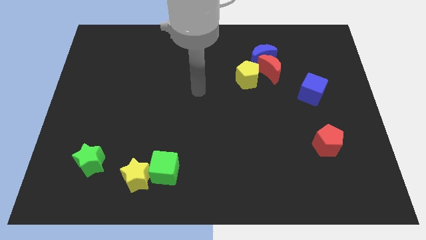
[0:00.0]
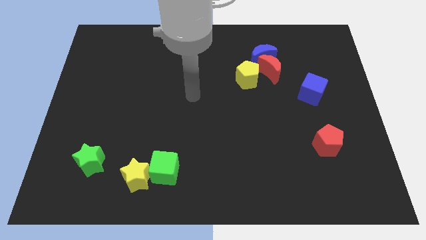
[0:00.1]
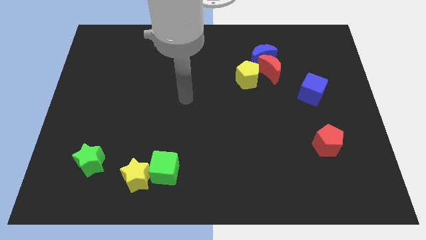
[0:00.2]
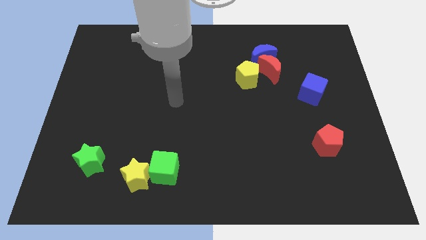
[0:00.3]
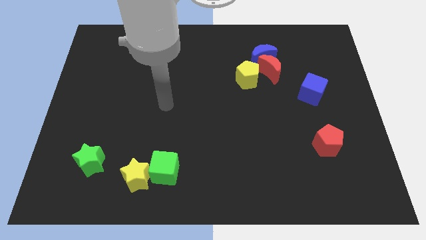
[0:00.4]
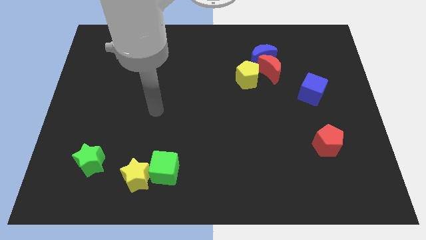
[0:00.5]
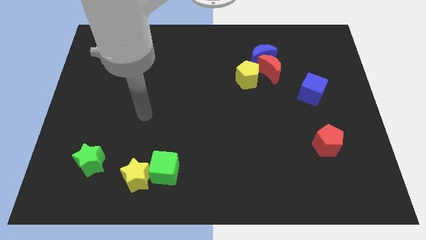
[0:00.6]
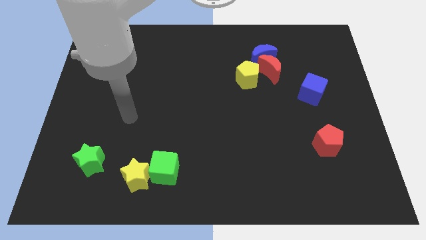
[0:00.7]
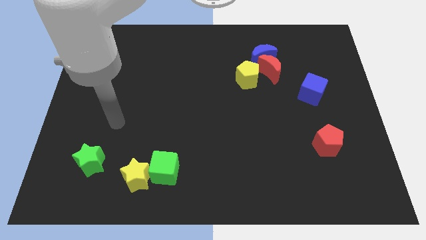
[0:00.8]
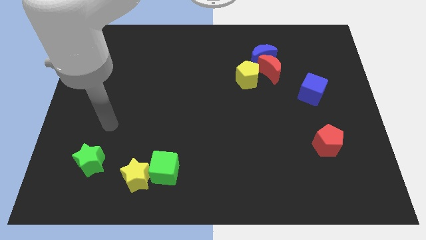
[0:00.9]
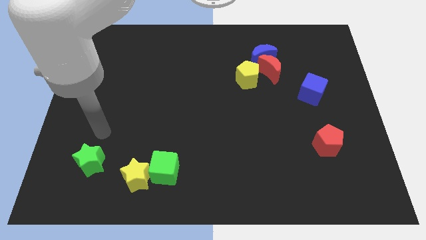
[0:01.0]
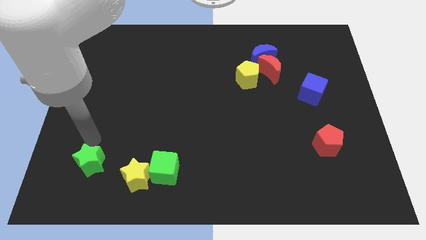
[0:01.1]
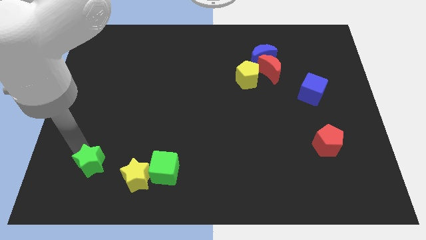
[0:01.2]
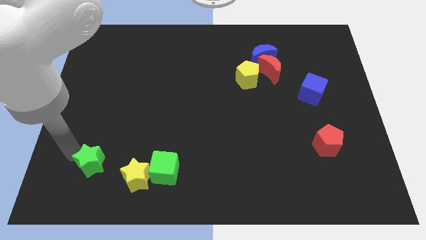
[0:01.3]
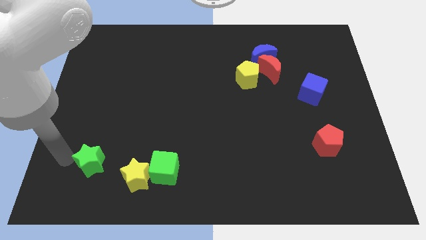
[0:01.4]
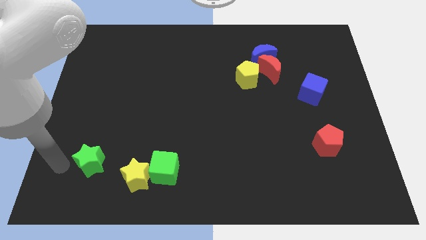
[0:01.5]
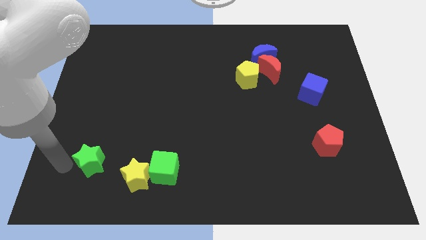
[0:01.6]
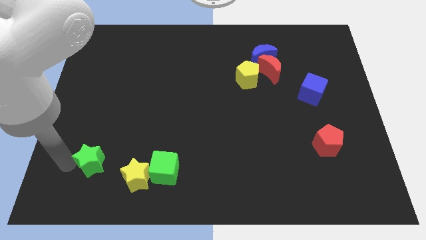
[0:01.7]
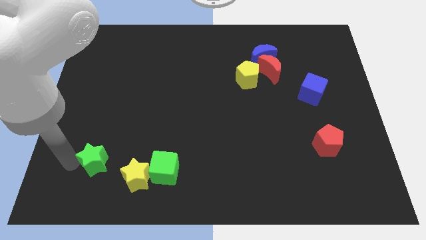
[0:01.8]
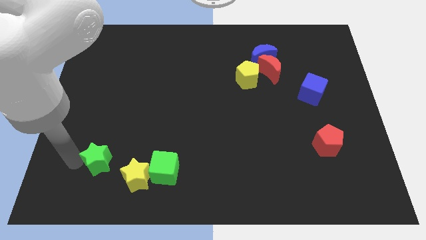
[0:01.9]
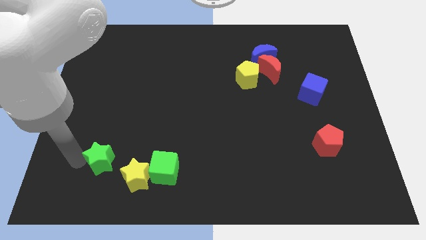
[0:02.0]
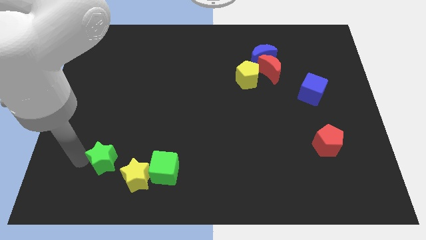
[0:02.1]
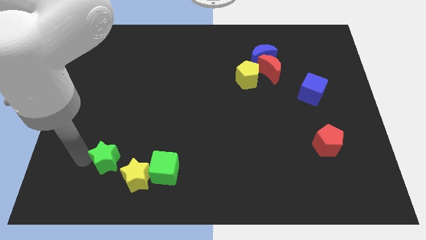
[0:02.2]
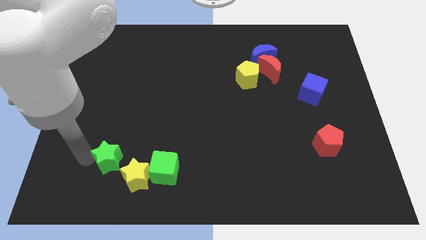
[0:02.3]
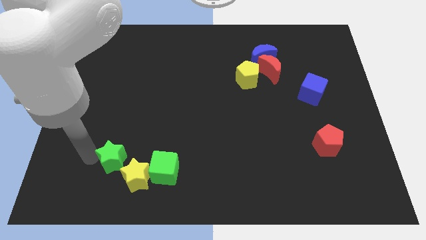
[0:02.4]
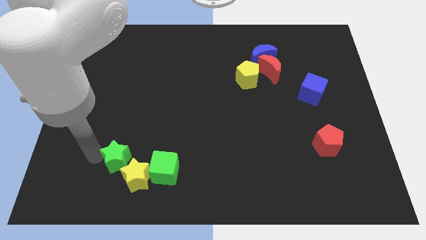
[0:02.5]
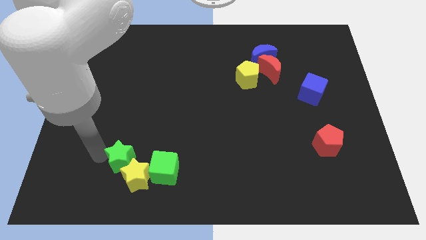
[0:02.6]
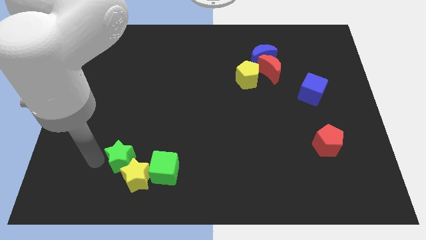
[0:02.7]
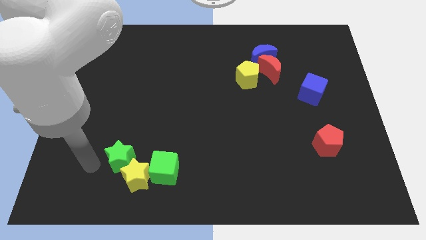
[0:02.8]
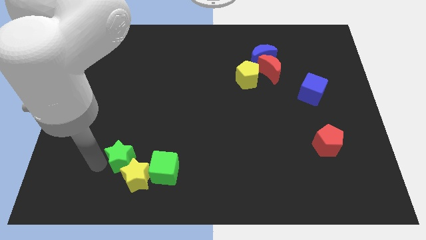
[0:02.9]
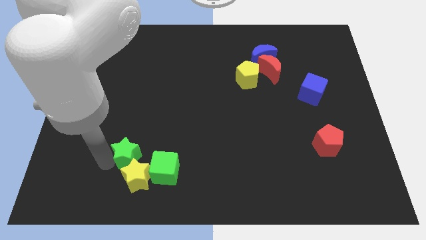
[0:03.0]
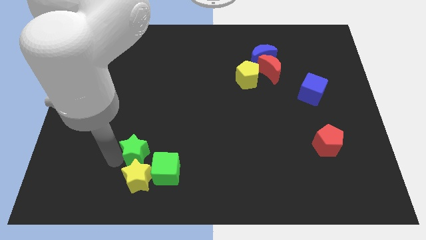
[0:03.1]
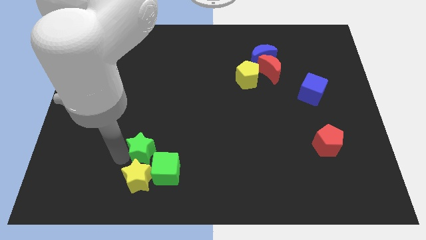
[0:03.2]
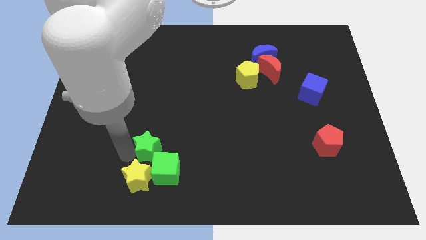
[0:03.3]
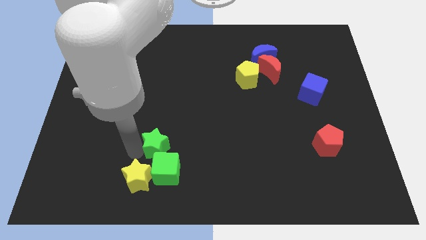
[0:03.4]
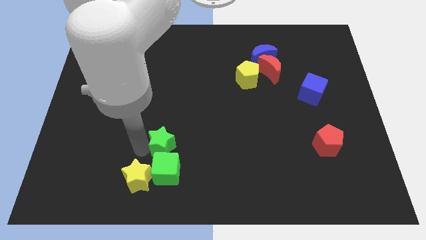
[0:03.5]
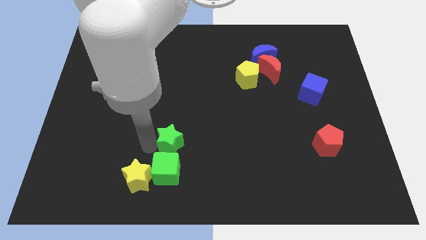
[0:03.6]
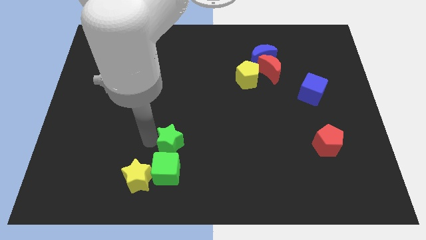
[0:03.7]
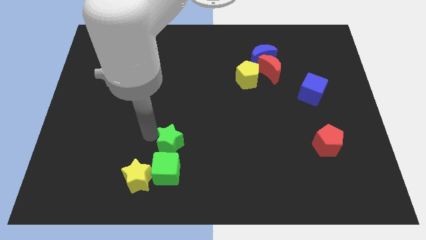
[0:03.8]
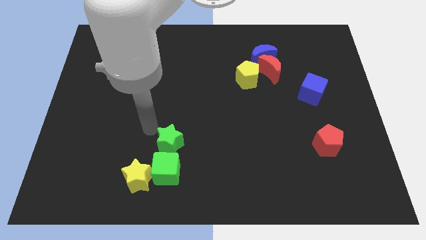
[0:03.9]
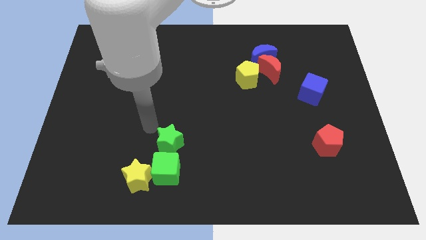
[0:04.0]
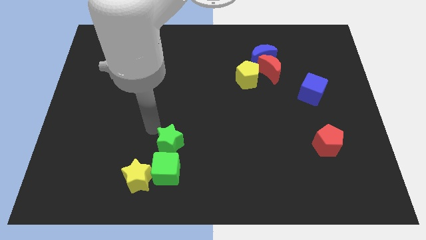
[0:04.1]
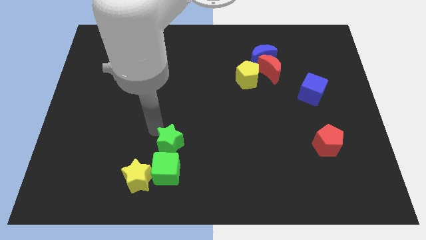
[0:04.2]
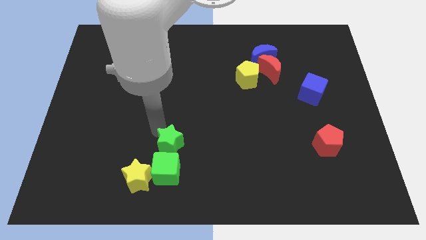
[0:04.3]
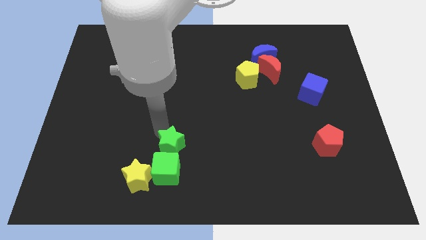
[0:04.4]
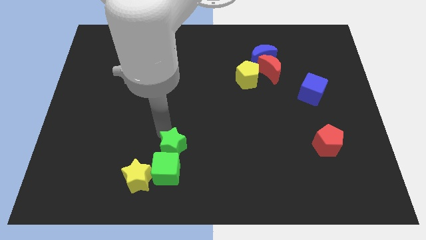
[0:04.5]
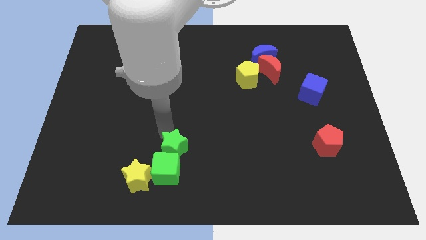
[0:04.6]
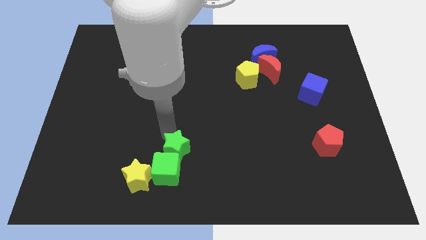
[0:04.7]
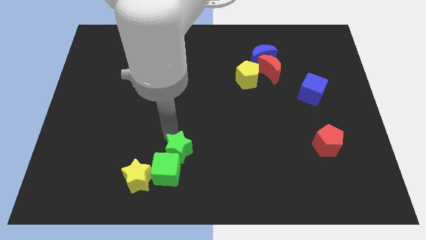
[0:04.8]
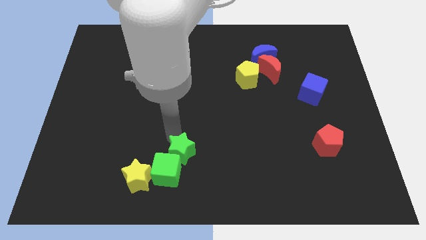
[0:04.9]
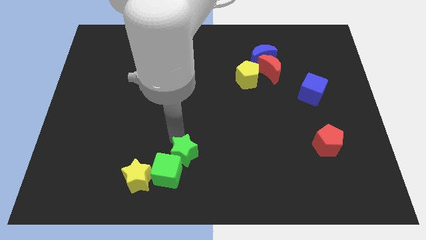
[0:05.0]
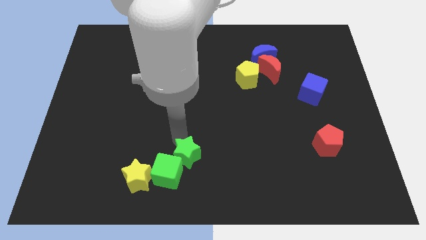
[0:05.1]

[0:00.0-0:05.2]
push the green star right

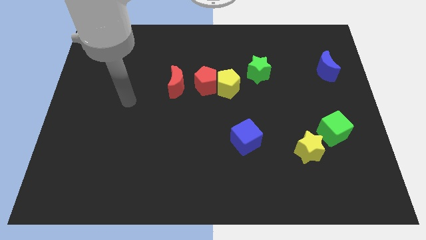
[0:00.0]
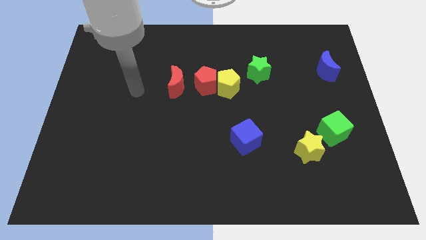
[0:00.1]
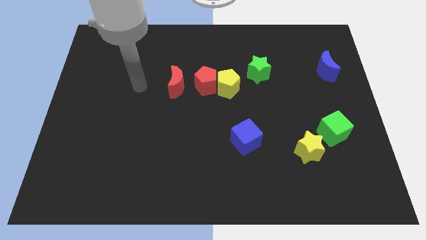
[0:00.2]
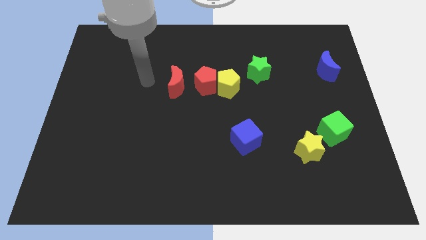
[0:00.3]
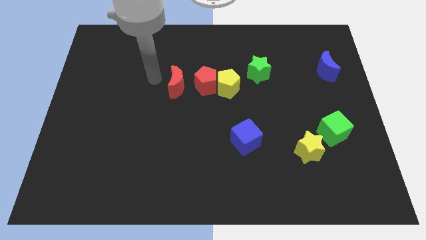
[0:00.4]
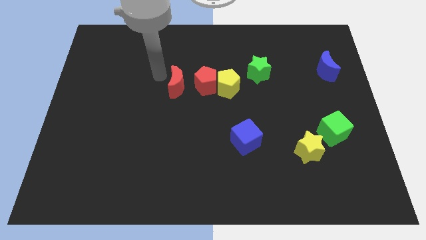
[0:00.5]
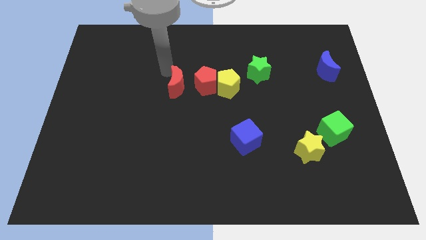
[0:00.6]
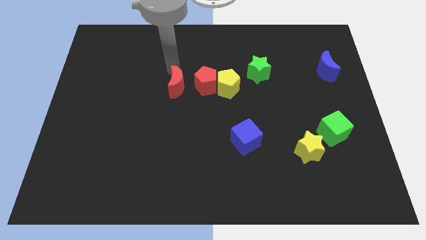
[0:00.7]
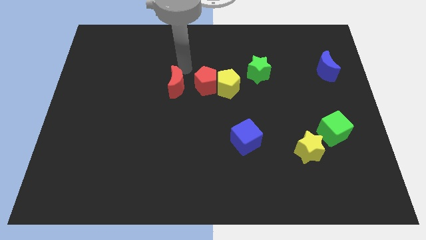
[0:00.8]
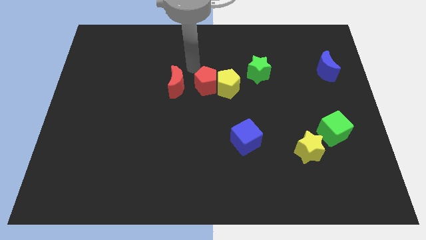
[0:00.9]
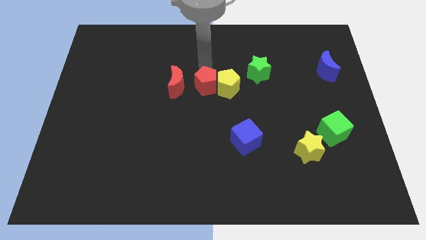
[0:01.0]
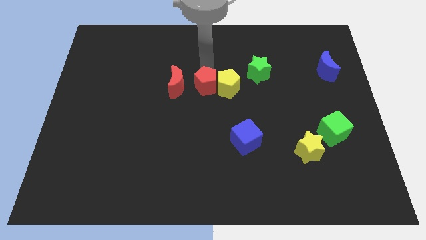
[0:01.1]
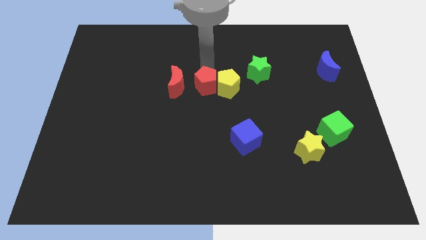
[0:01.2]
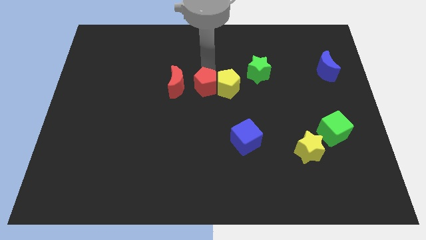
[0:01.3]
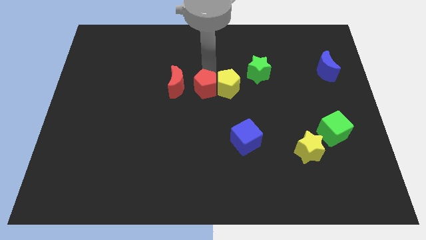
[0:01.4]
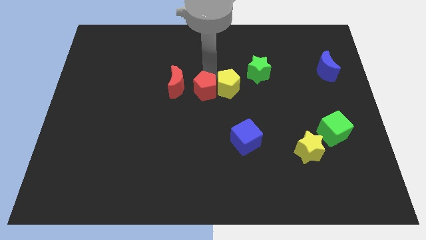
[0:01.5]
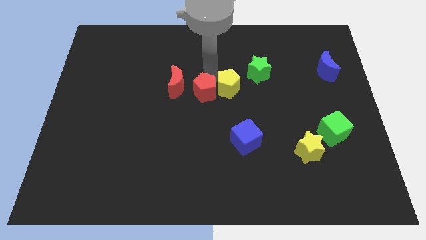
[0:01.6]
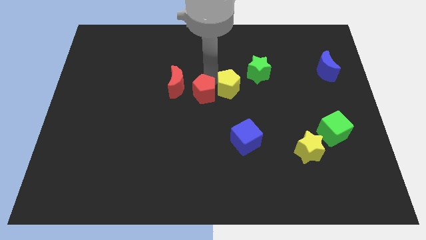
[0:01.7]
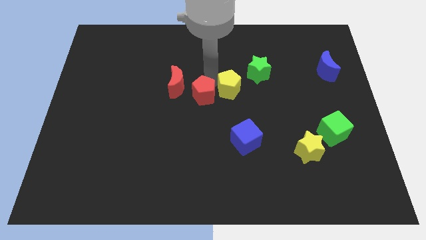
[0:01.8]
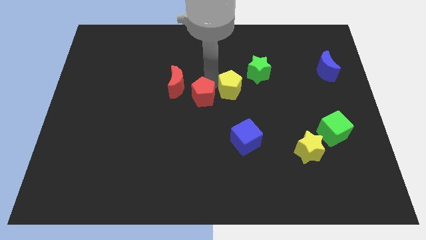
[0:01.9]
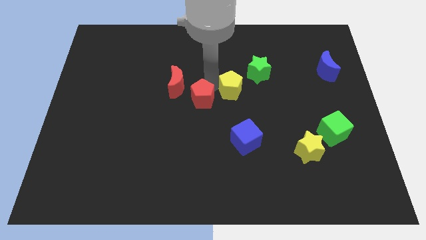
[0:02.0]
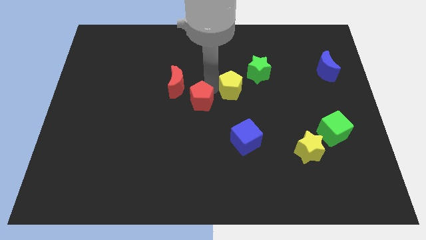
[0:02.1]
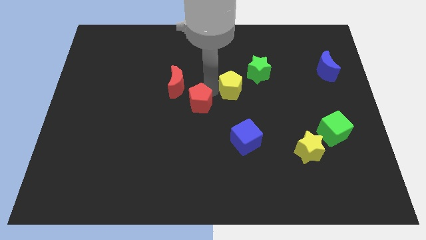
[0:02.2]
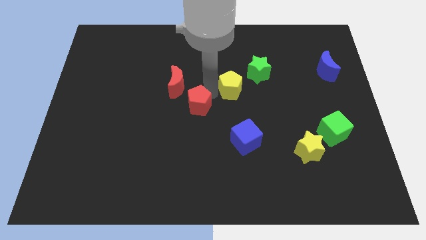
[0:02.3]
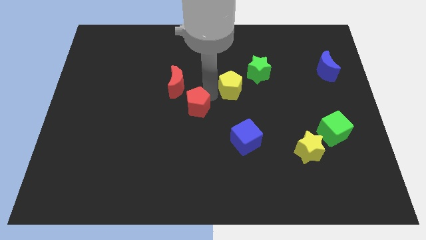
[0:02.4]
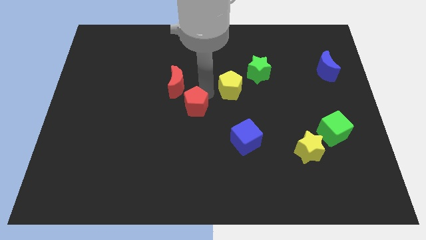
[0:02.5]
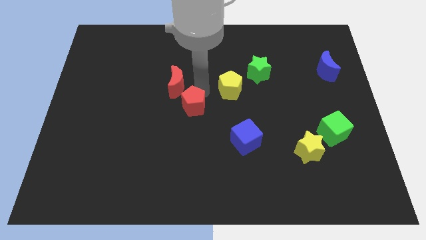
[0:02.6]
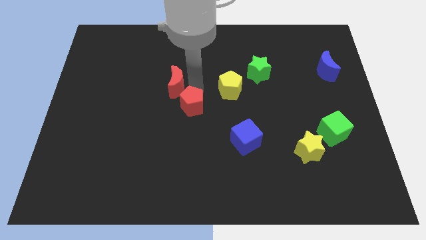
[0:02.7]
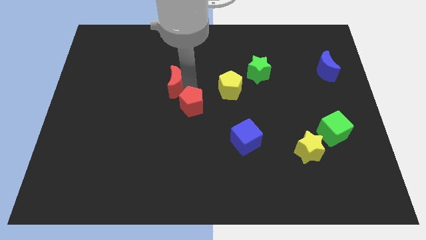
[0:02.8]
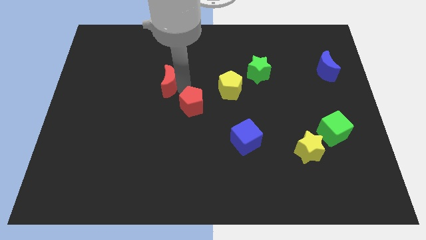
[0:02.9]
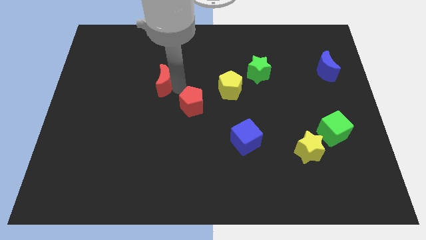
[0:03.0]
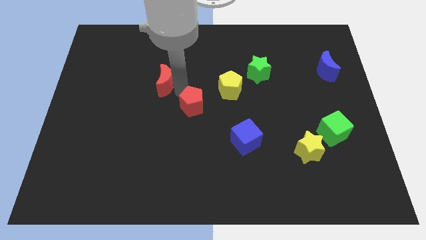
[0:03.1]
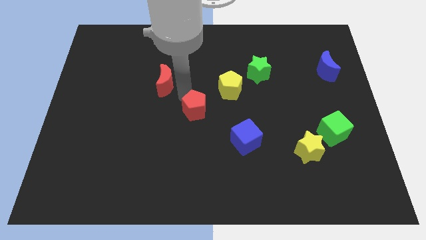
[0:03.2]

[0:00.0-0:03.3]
push the red pentagon down slightly
